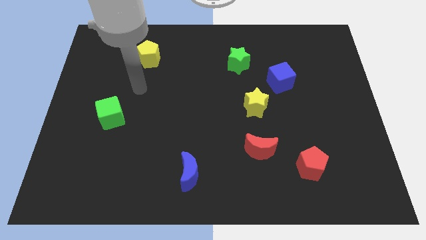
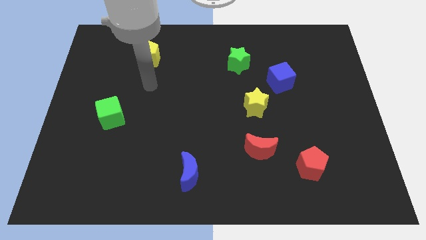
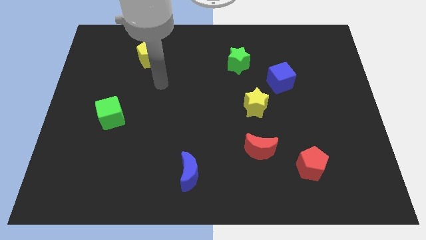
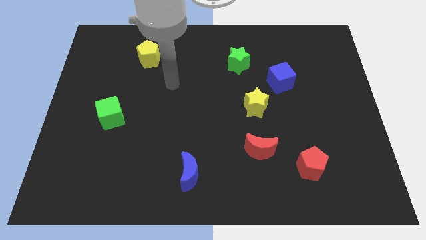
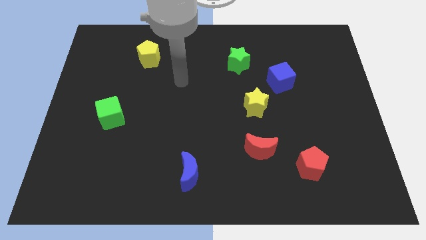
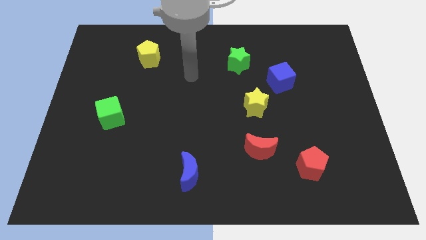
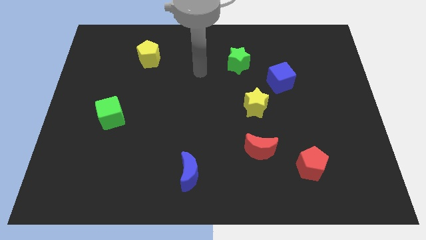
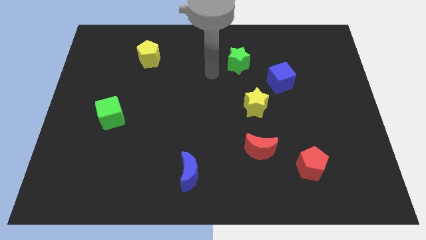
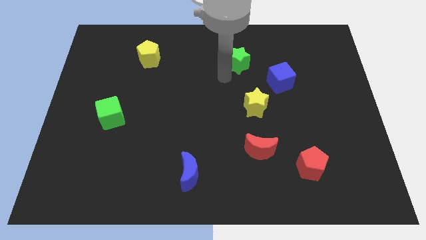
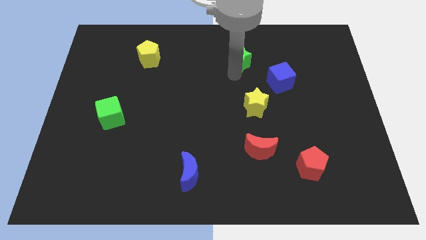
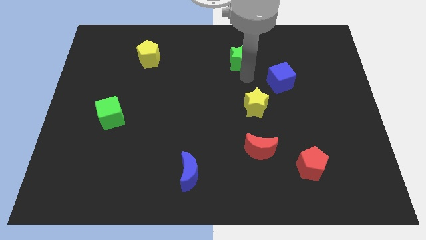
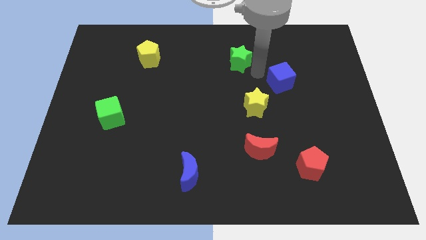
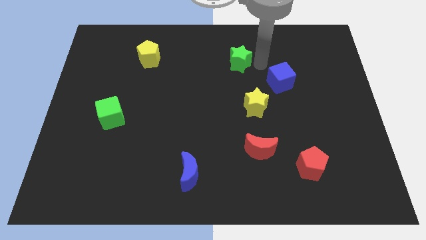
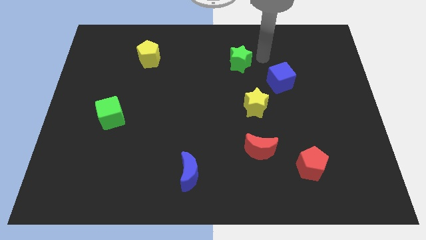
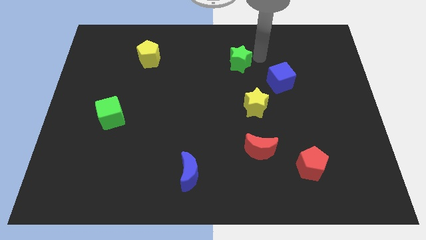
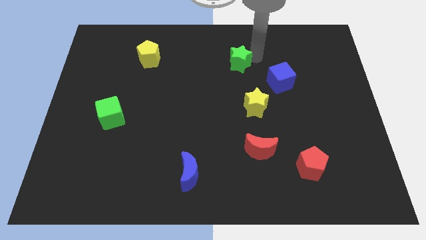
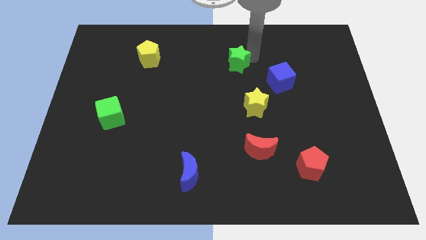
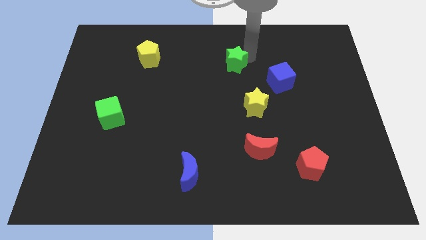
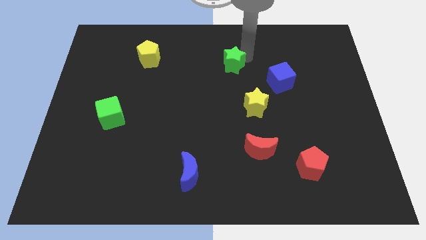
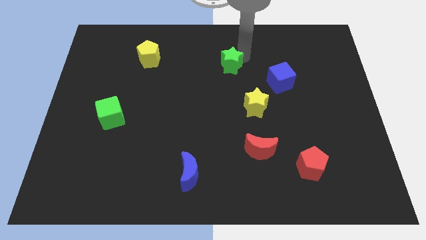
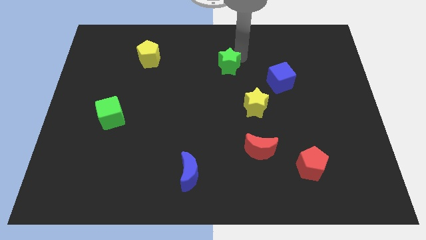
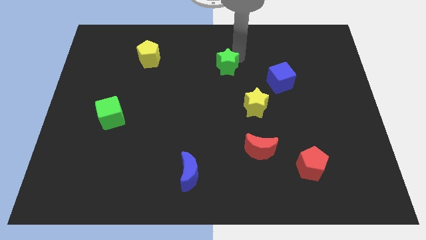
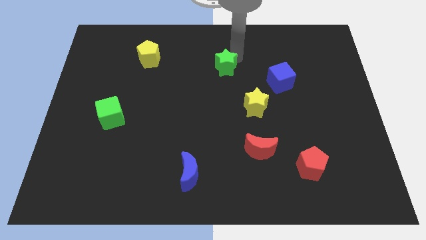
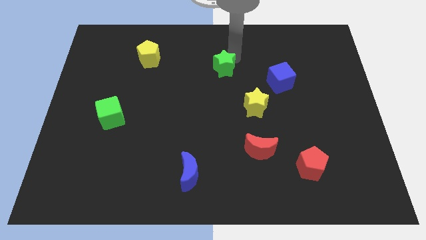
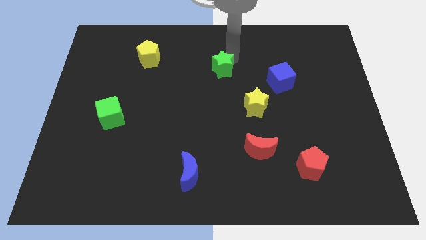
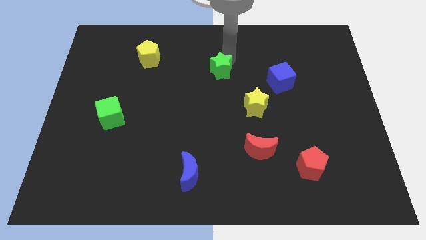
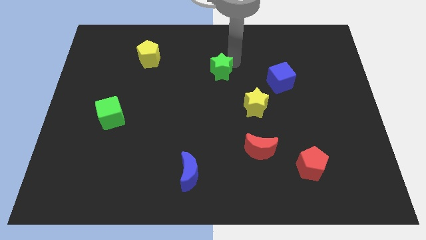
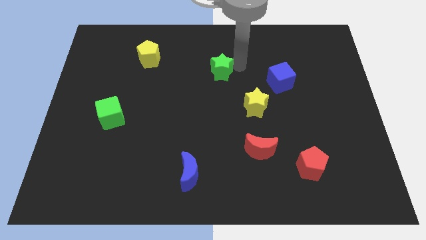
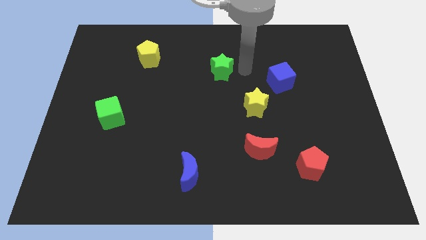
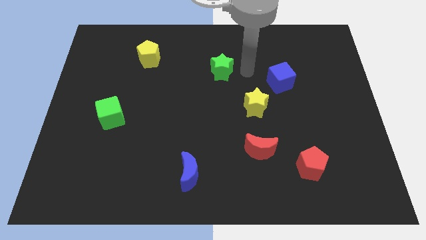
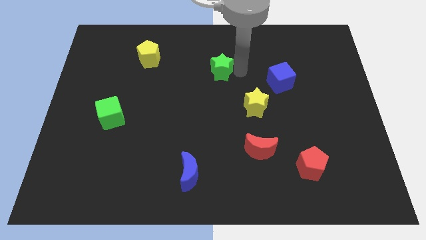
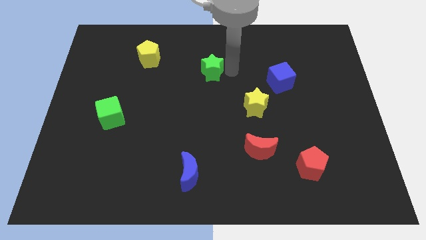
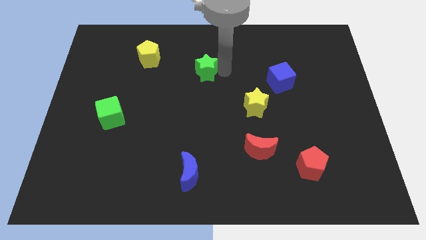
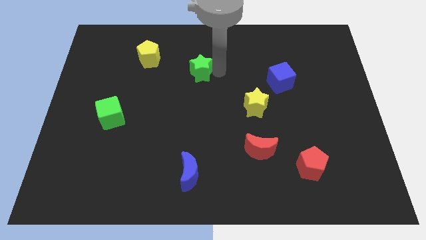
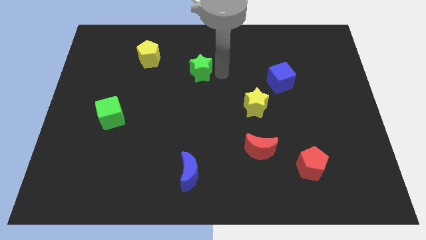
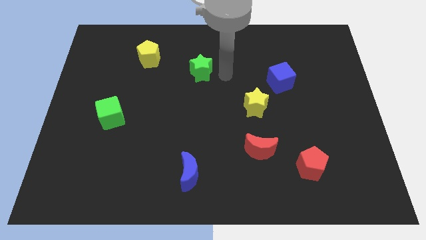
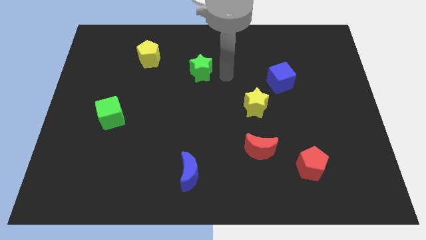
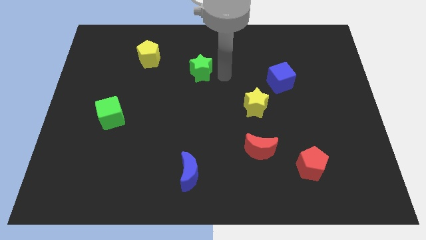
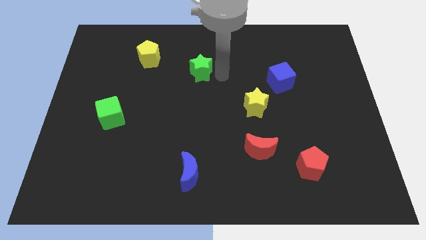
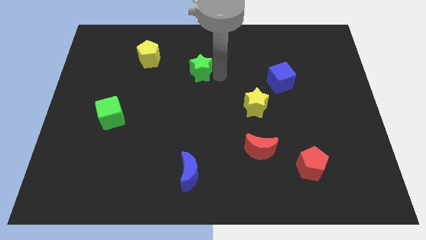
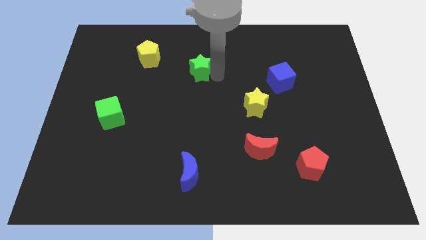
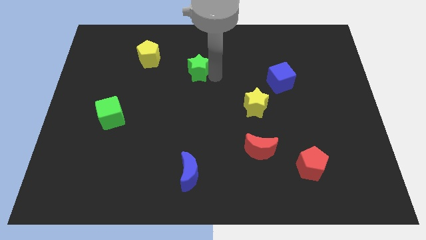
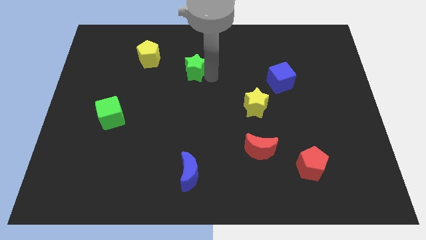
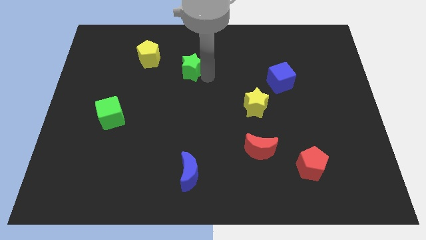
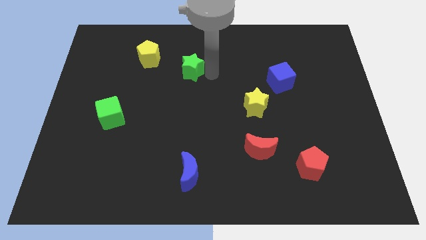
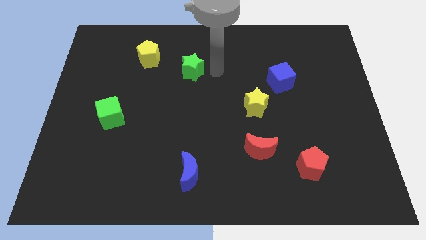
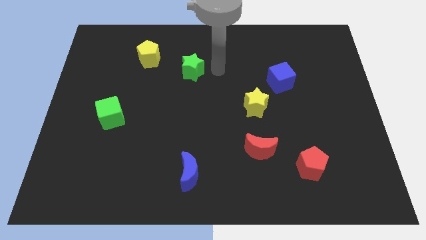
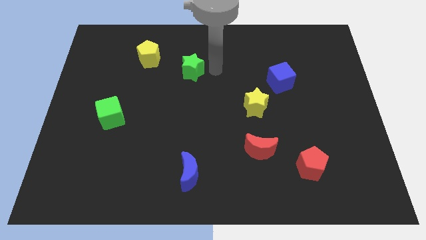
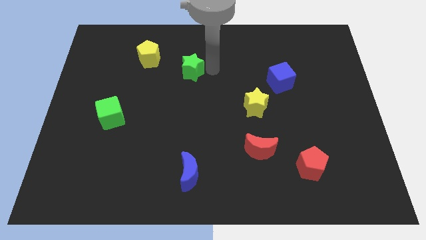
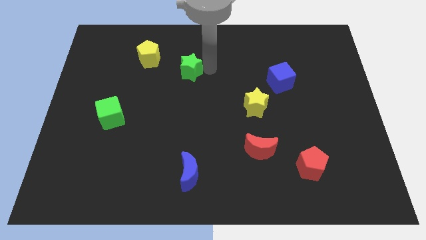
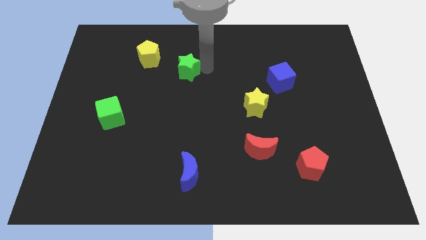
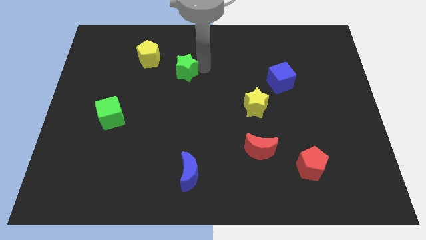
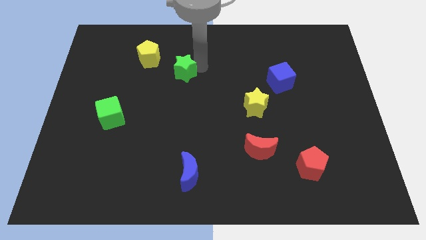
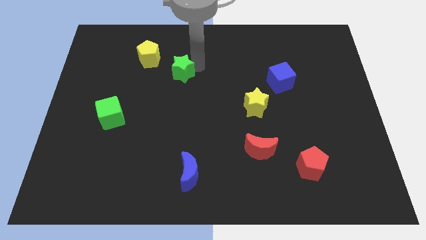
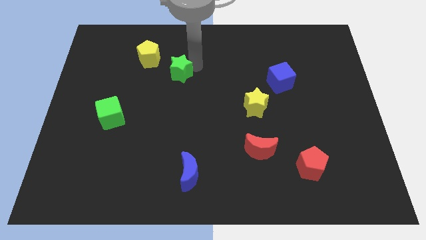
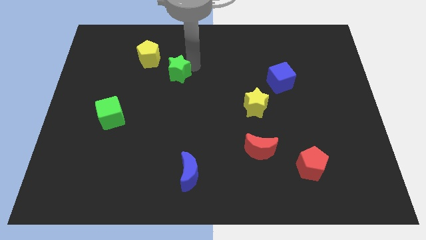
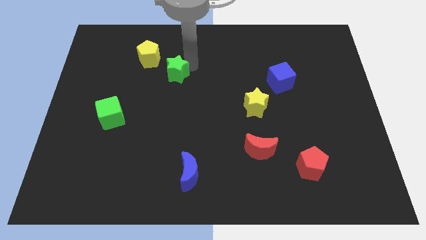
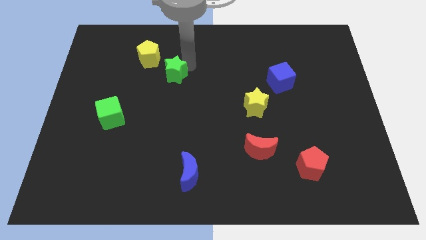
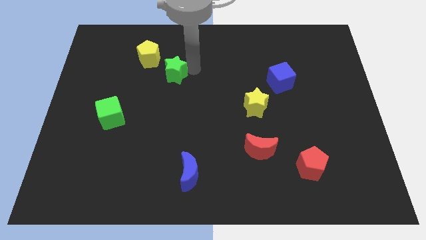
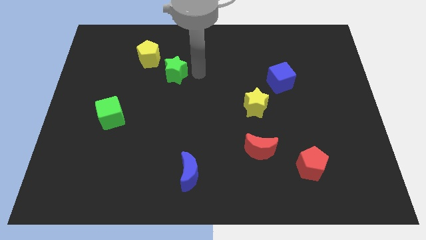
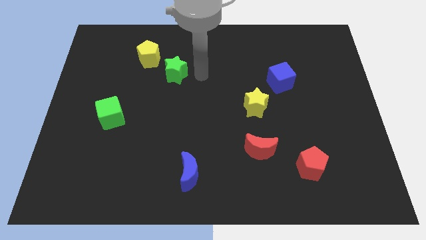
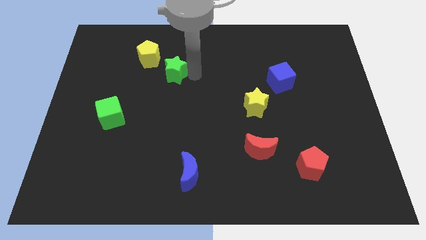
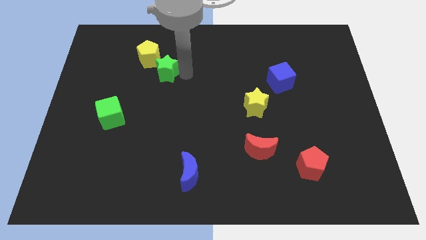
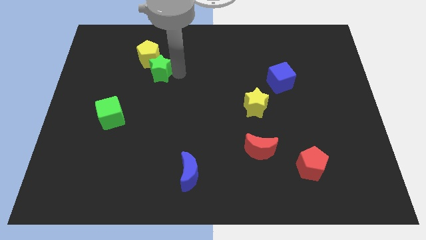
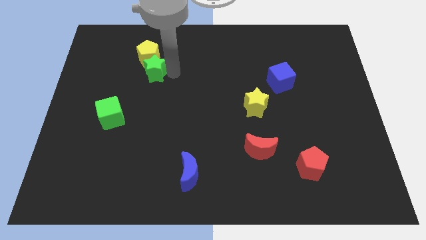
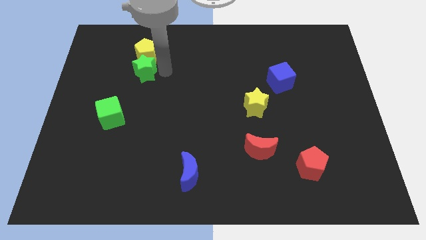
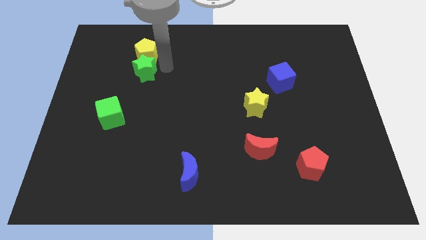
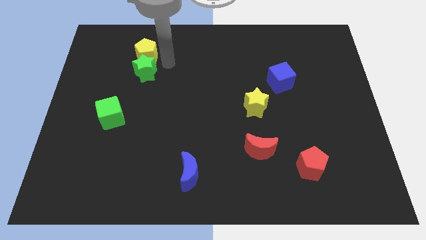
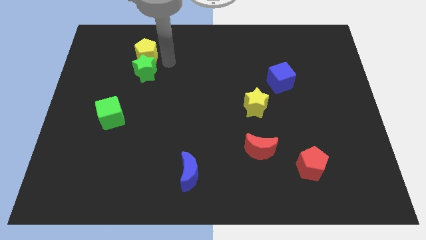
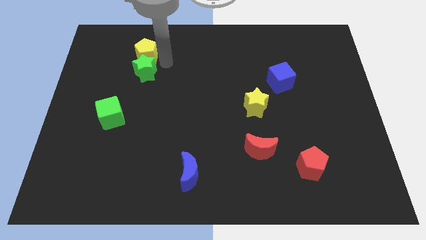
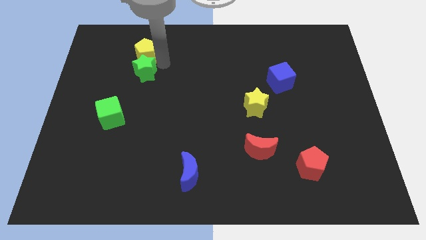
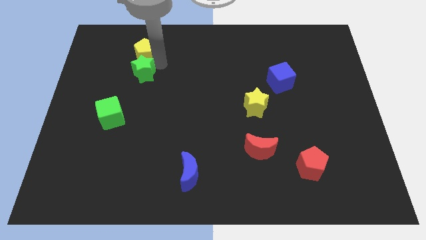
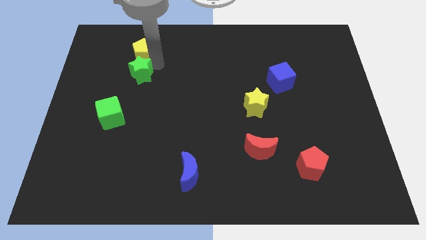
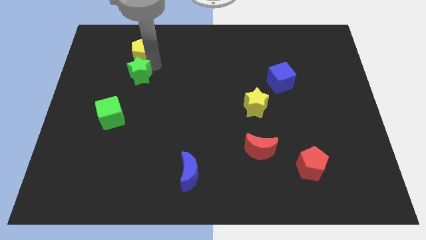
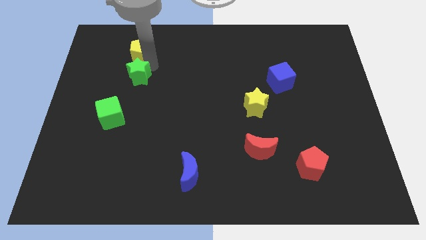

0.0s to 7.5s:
put the green star to the top side of the green cube

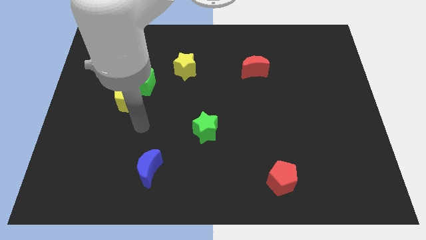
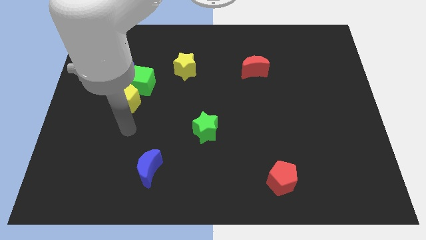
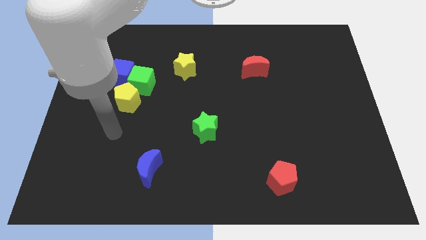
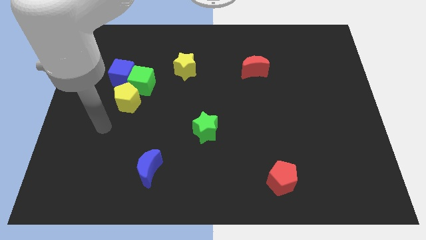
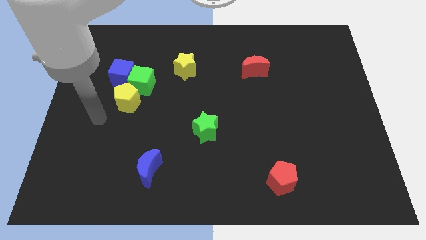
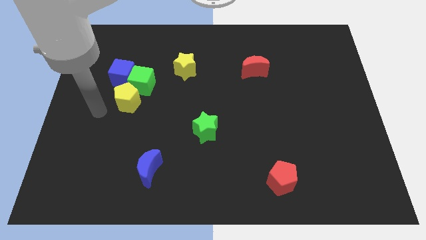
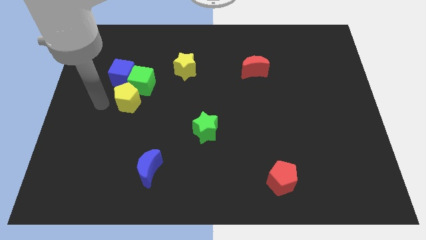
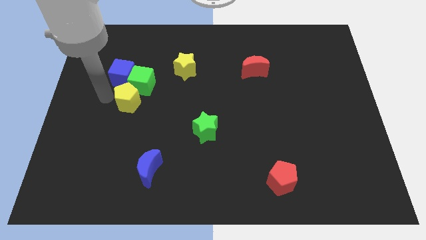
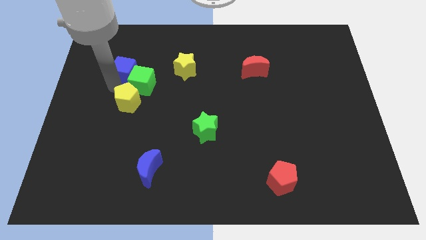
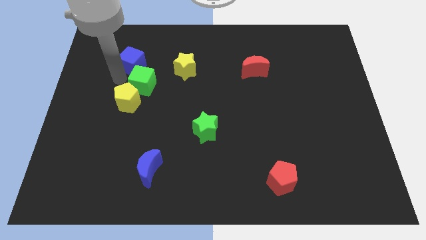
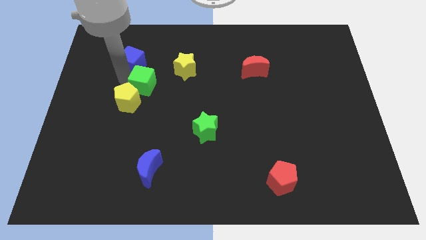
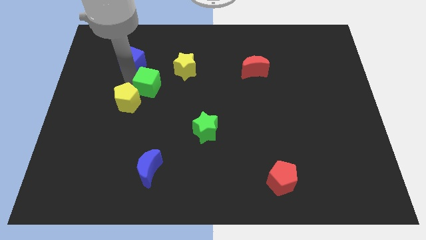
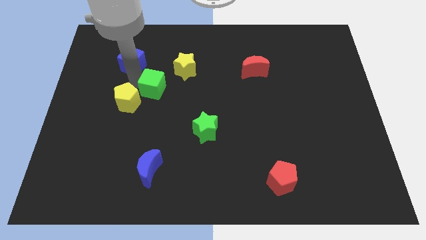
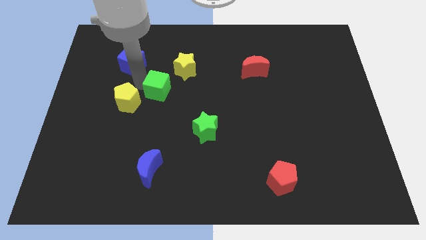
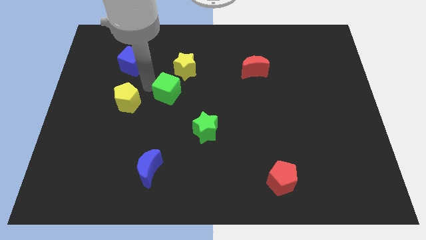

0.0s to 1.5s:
slide the green cube to the bottom side of the yellow star
